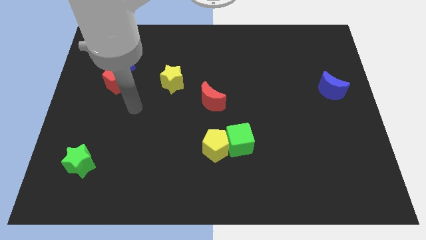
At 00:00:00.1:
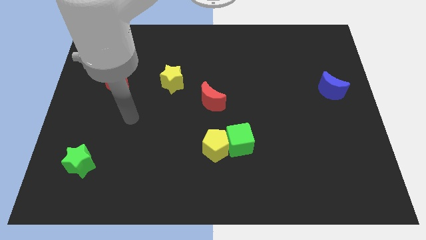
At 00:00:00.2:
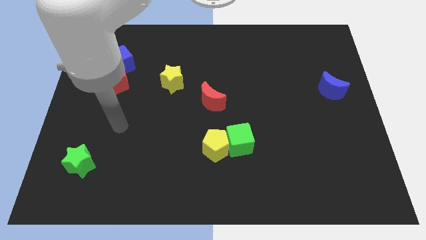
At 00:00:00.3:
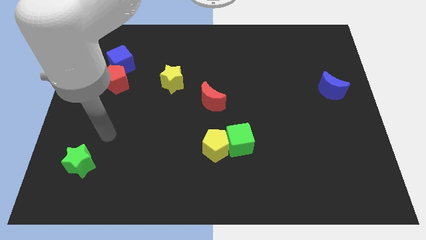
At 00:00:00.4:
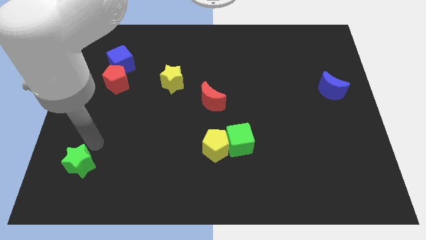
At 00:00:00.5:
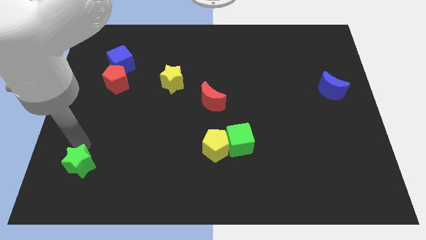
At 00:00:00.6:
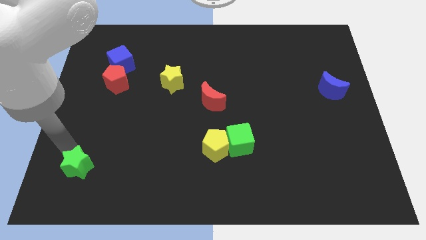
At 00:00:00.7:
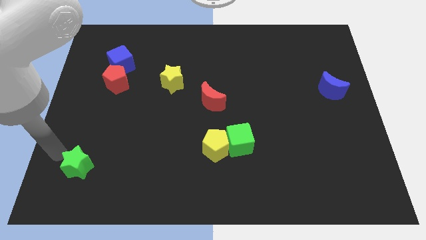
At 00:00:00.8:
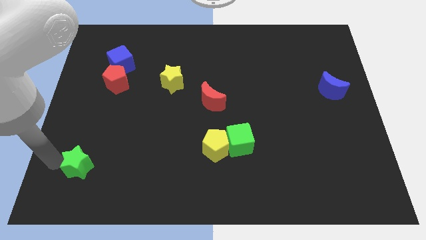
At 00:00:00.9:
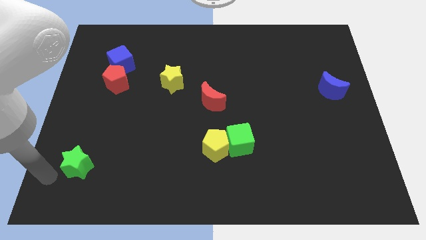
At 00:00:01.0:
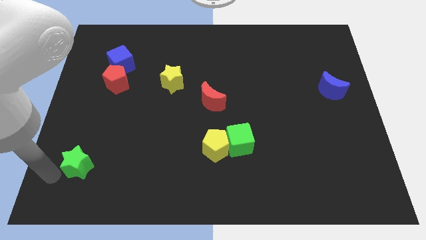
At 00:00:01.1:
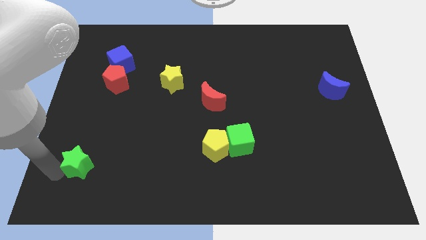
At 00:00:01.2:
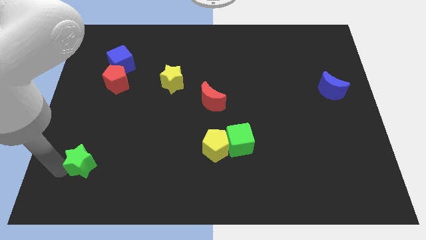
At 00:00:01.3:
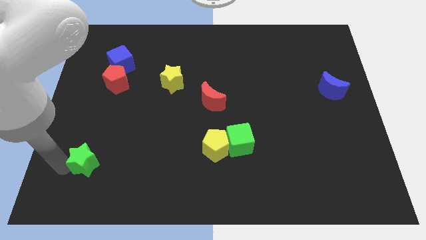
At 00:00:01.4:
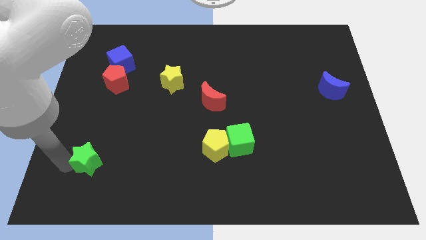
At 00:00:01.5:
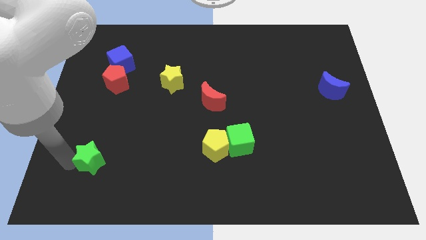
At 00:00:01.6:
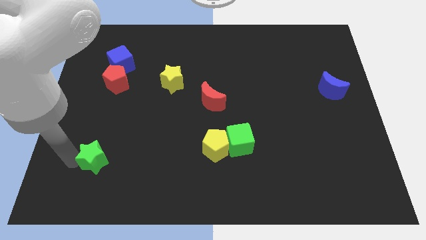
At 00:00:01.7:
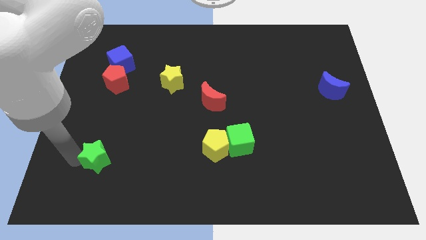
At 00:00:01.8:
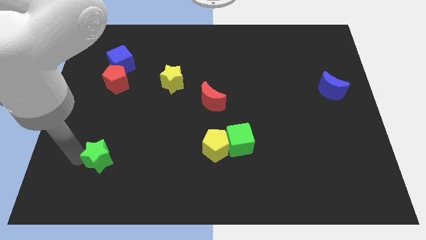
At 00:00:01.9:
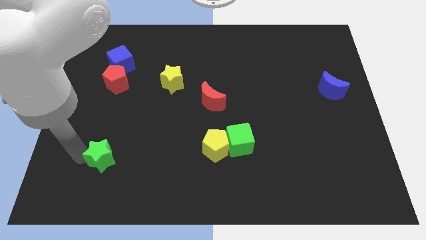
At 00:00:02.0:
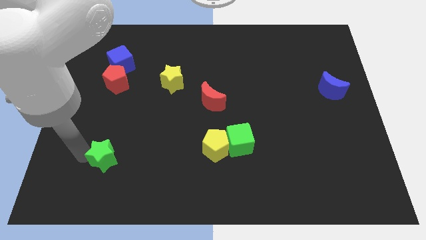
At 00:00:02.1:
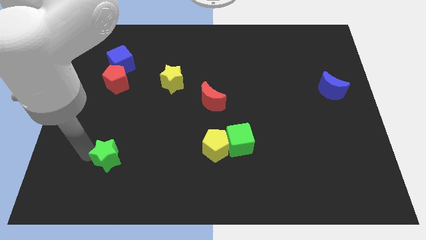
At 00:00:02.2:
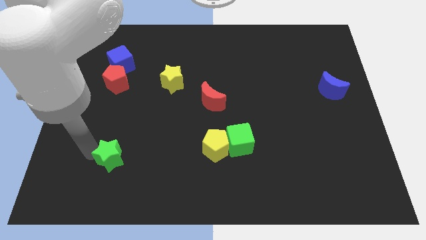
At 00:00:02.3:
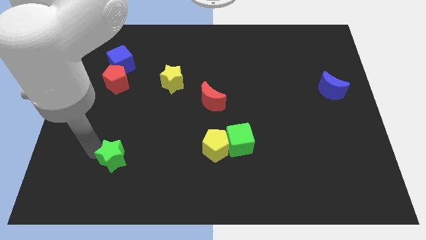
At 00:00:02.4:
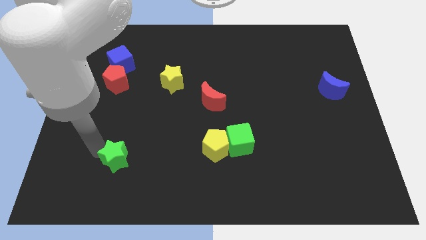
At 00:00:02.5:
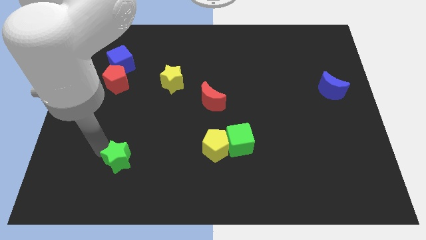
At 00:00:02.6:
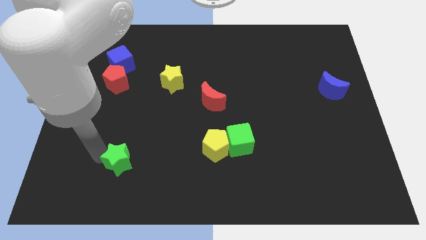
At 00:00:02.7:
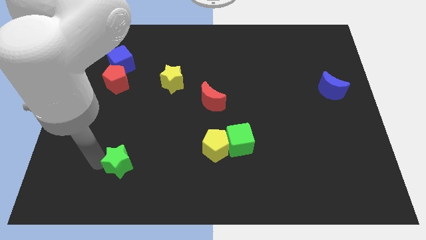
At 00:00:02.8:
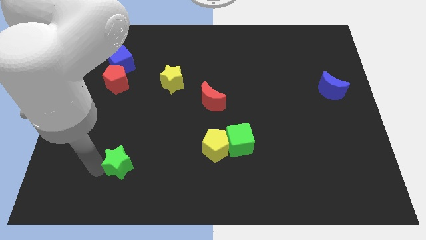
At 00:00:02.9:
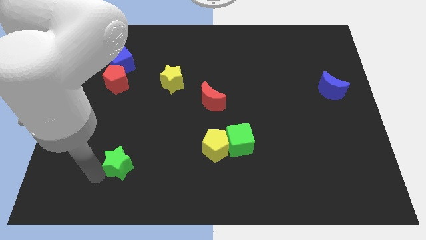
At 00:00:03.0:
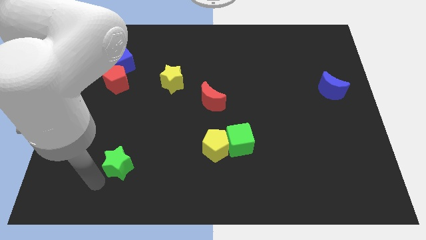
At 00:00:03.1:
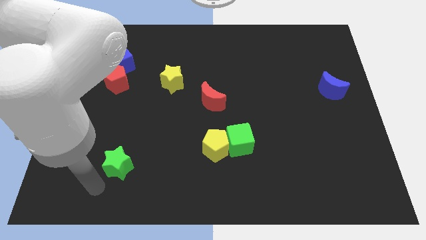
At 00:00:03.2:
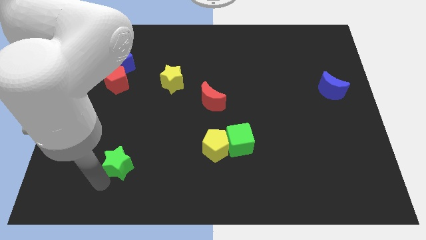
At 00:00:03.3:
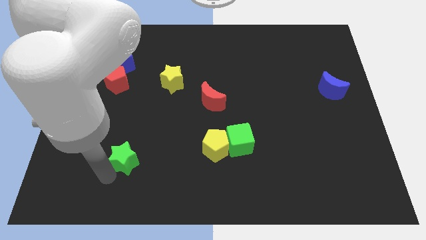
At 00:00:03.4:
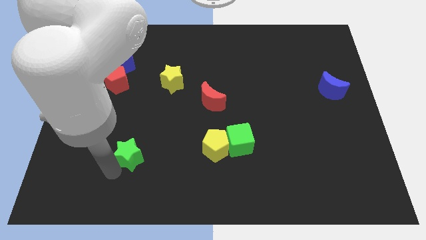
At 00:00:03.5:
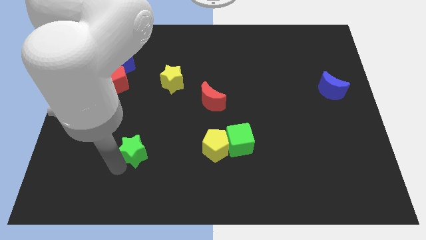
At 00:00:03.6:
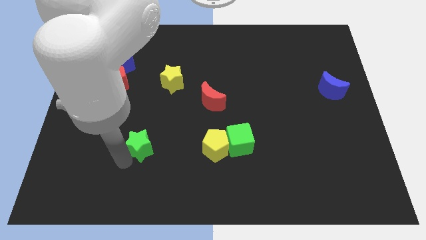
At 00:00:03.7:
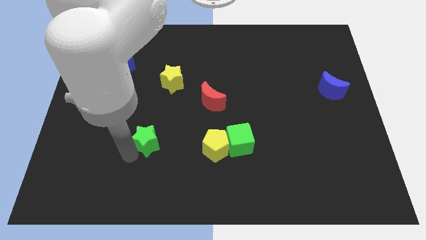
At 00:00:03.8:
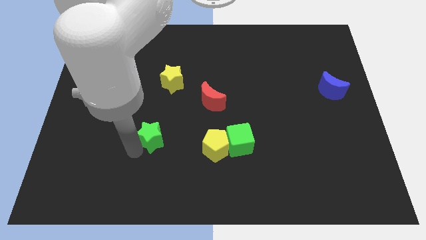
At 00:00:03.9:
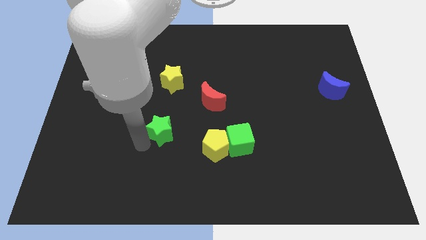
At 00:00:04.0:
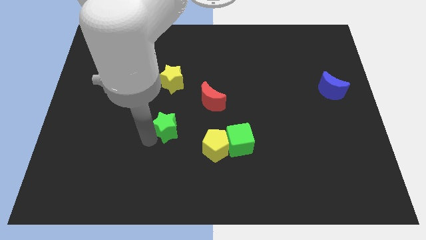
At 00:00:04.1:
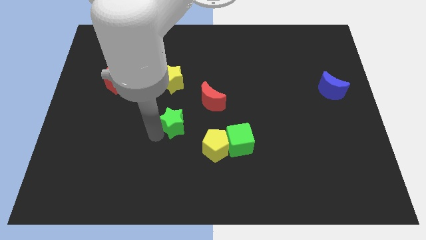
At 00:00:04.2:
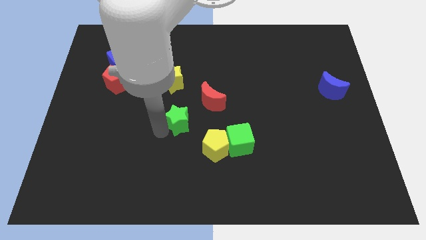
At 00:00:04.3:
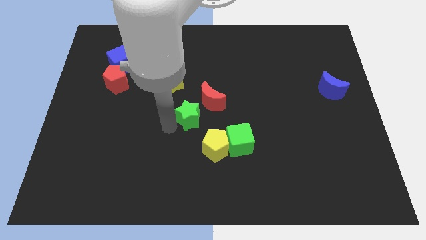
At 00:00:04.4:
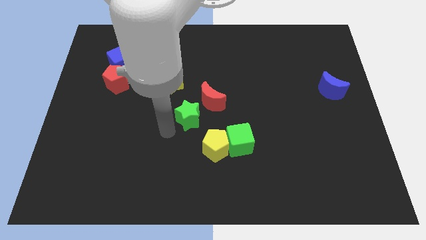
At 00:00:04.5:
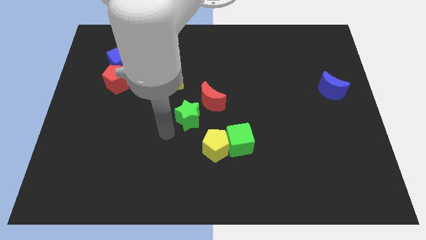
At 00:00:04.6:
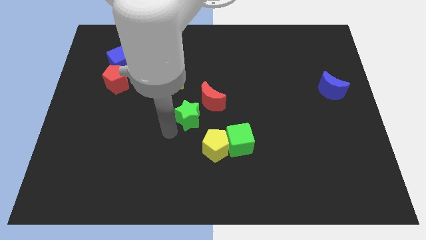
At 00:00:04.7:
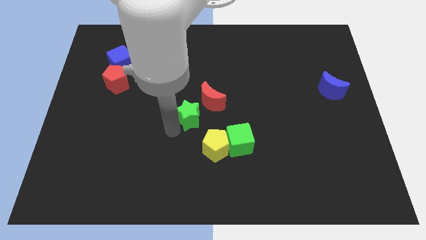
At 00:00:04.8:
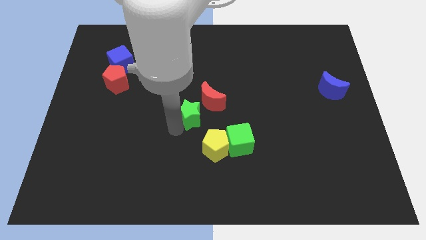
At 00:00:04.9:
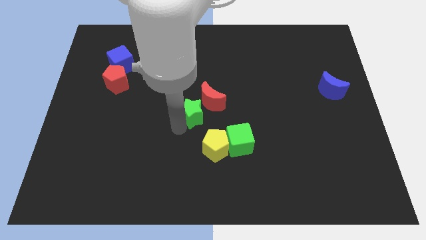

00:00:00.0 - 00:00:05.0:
push the green star close to the red moon

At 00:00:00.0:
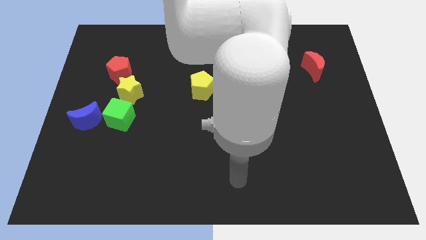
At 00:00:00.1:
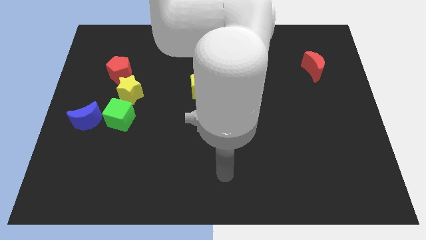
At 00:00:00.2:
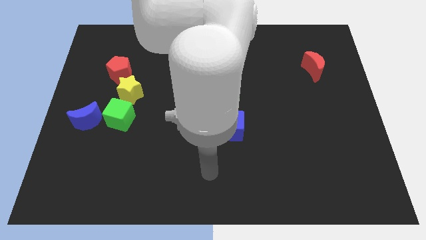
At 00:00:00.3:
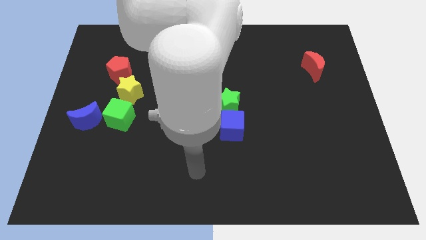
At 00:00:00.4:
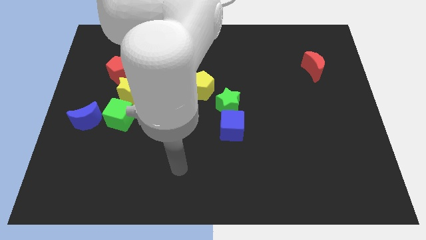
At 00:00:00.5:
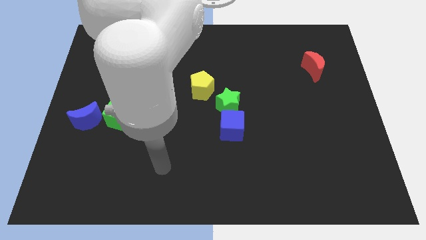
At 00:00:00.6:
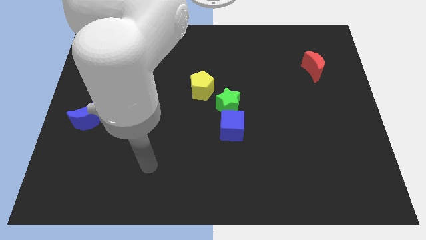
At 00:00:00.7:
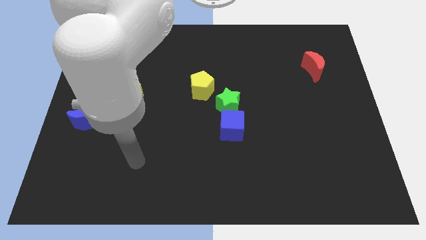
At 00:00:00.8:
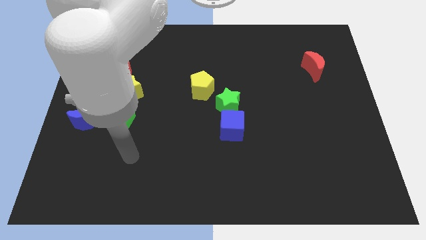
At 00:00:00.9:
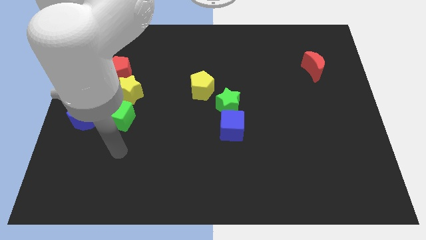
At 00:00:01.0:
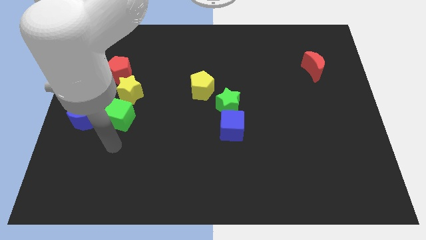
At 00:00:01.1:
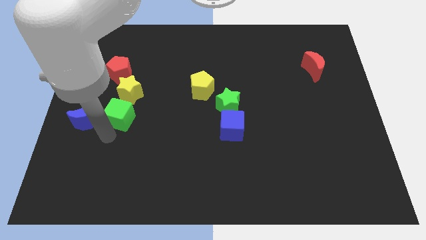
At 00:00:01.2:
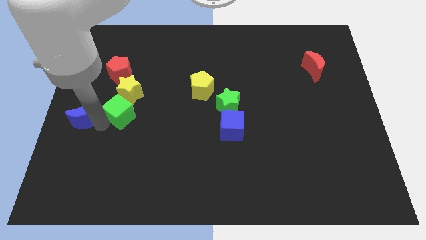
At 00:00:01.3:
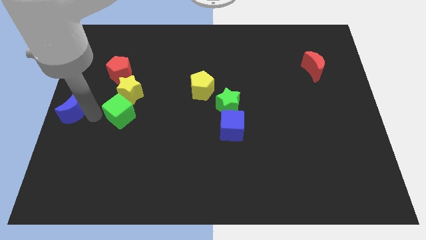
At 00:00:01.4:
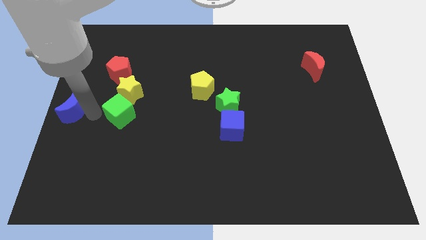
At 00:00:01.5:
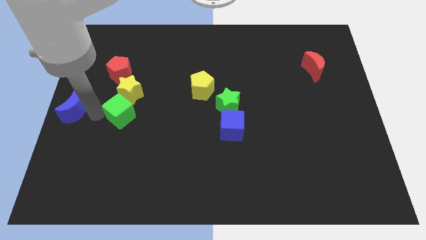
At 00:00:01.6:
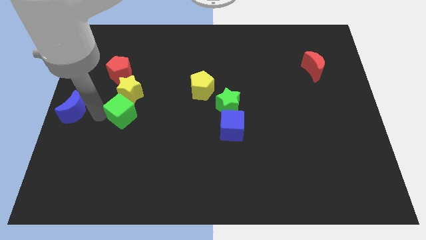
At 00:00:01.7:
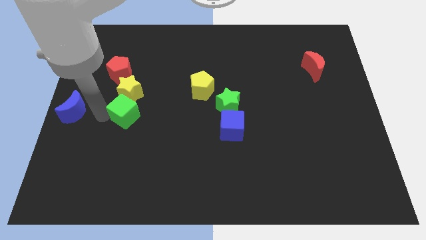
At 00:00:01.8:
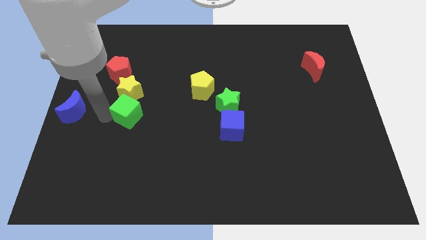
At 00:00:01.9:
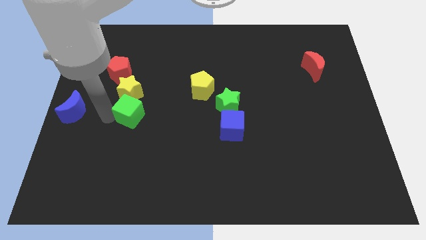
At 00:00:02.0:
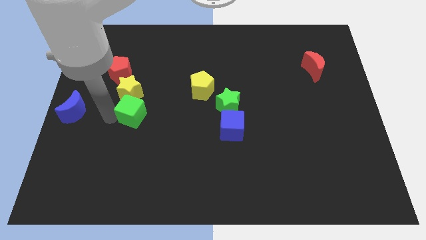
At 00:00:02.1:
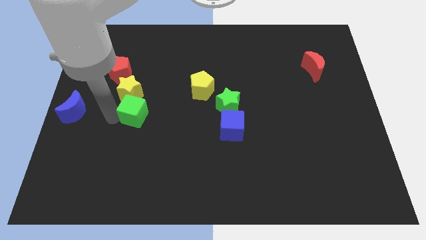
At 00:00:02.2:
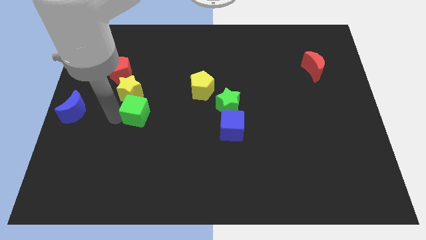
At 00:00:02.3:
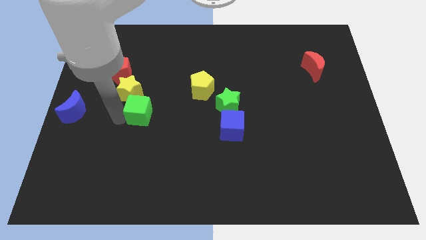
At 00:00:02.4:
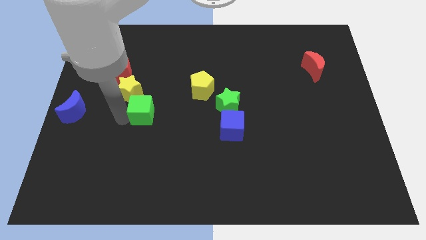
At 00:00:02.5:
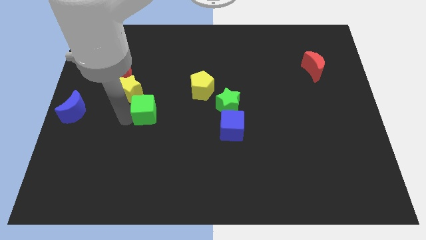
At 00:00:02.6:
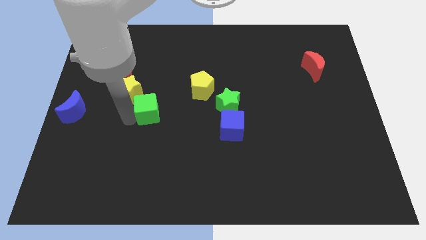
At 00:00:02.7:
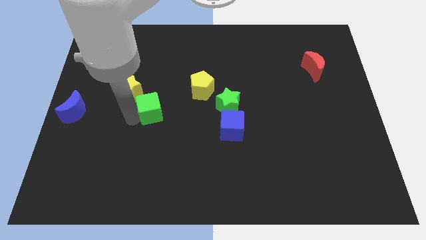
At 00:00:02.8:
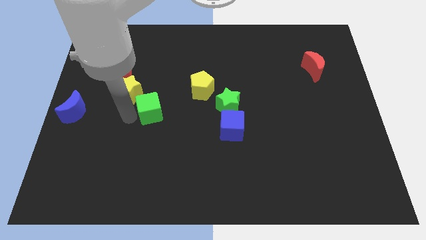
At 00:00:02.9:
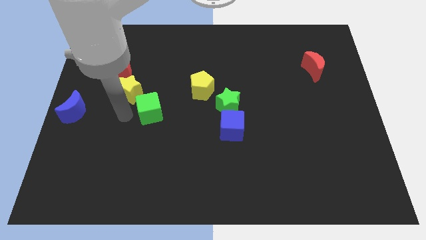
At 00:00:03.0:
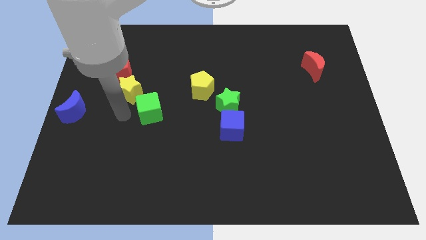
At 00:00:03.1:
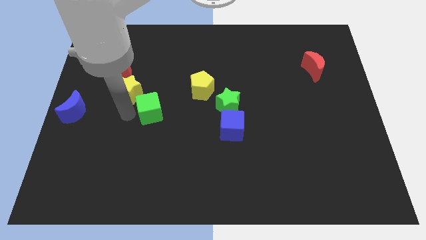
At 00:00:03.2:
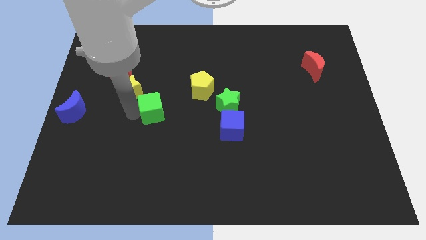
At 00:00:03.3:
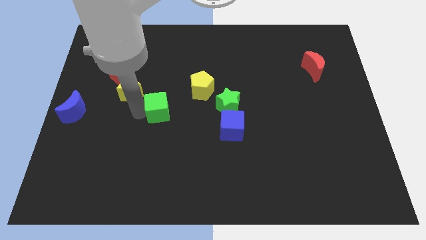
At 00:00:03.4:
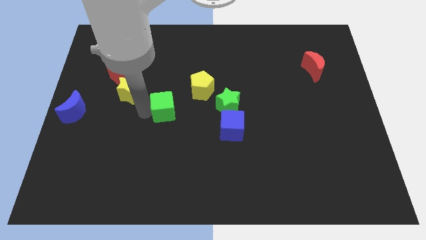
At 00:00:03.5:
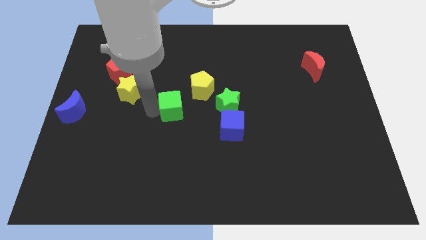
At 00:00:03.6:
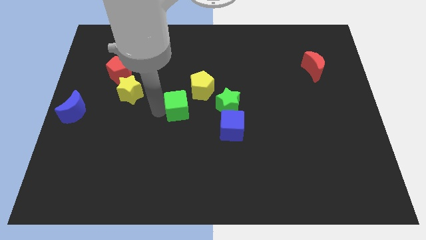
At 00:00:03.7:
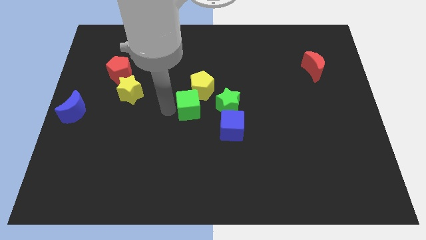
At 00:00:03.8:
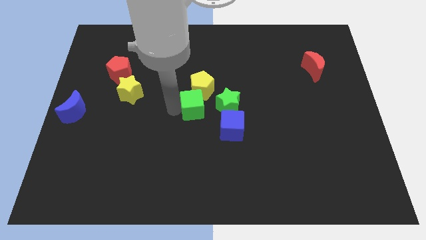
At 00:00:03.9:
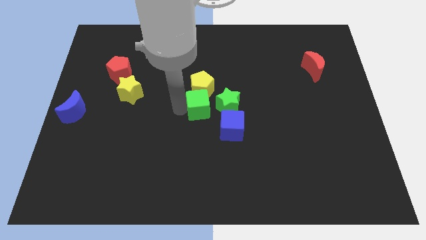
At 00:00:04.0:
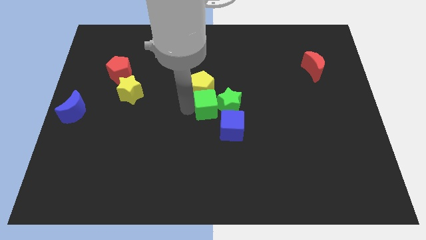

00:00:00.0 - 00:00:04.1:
move the green cube to the green star
